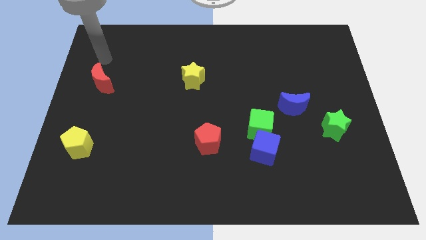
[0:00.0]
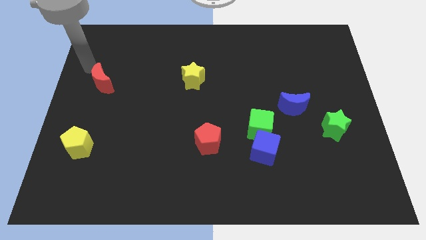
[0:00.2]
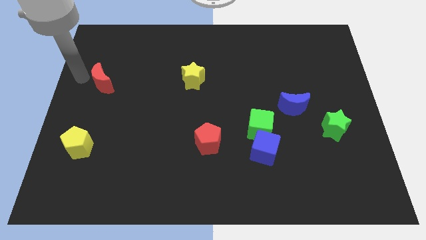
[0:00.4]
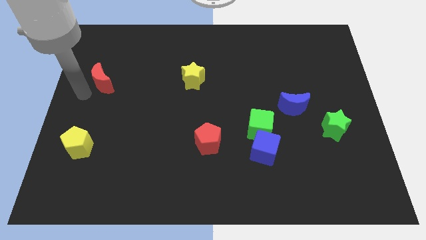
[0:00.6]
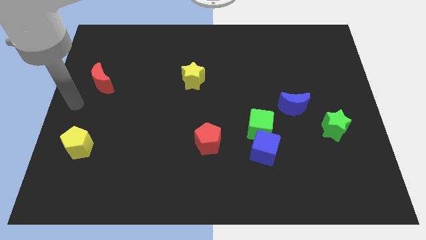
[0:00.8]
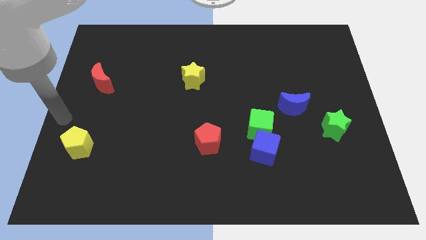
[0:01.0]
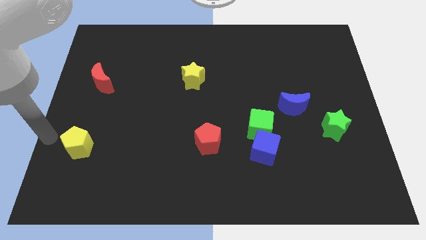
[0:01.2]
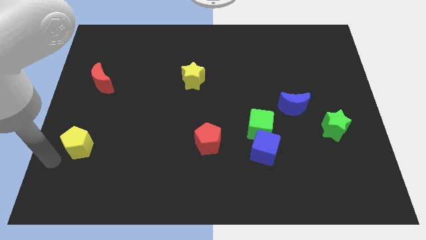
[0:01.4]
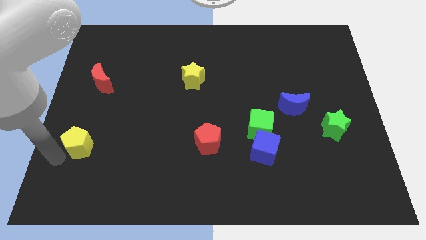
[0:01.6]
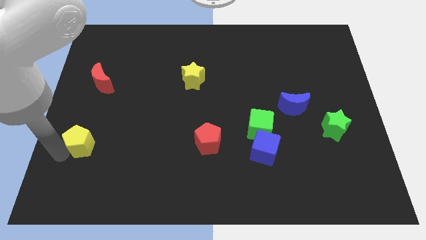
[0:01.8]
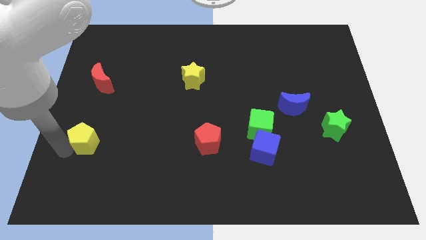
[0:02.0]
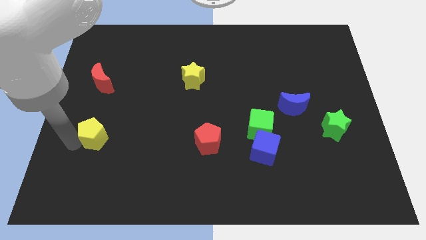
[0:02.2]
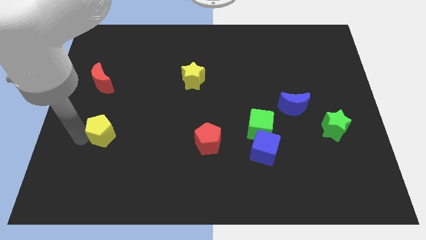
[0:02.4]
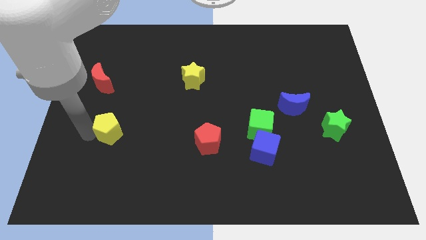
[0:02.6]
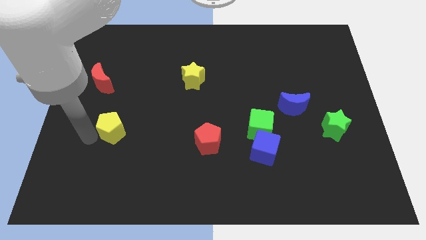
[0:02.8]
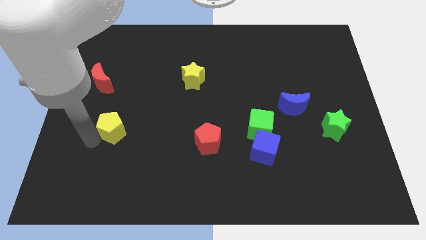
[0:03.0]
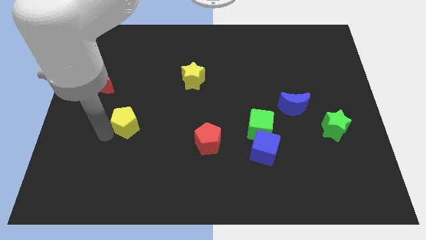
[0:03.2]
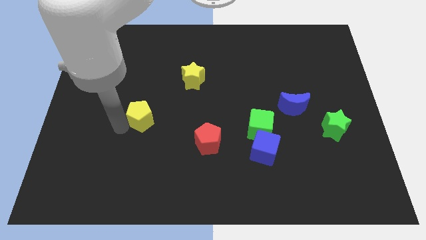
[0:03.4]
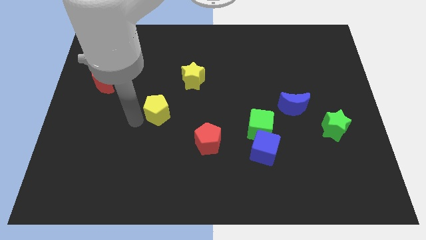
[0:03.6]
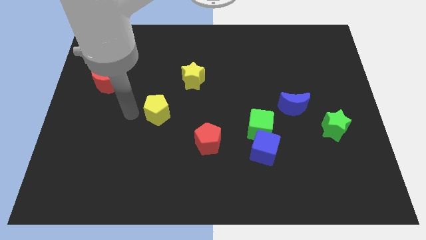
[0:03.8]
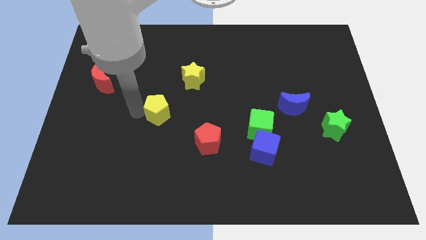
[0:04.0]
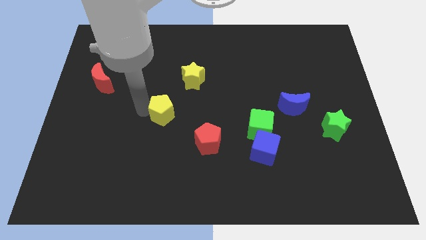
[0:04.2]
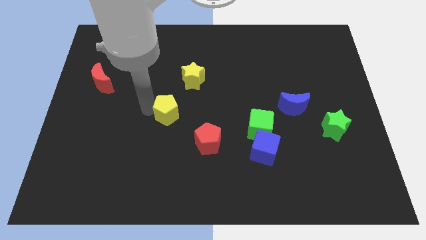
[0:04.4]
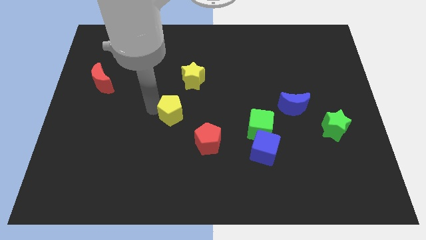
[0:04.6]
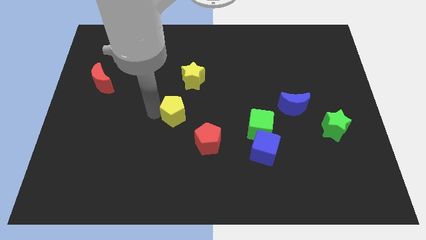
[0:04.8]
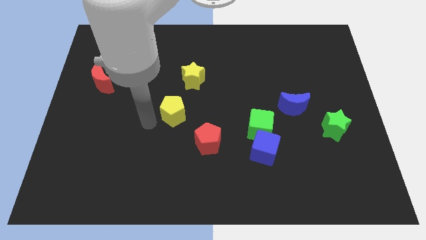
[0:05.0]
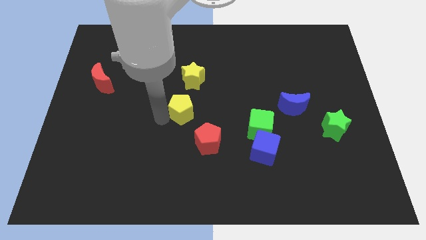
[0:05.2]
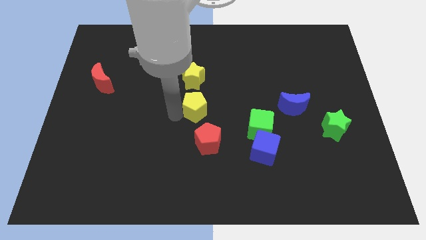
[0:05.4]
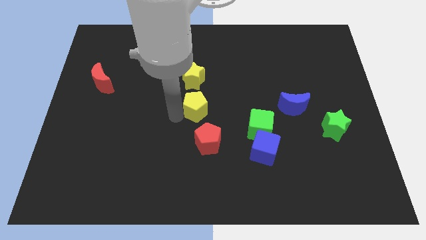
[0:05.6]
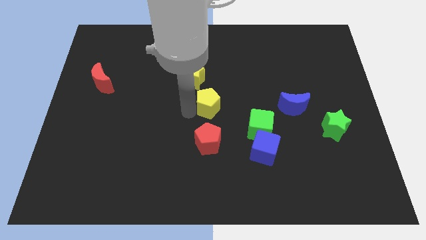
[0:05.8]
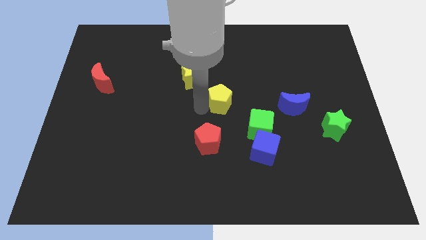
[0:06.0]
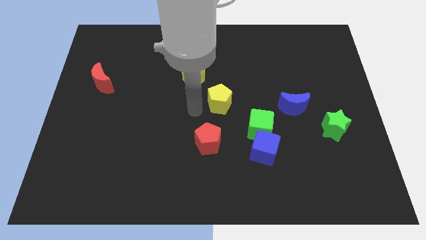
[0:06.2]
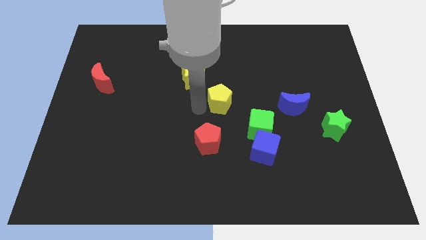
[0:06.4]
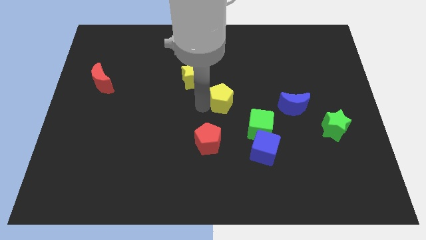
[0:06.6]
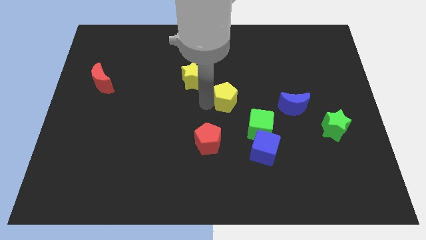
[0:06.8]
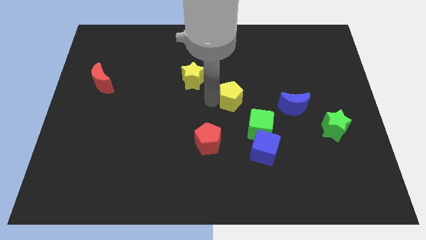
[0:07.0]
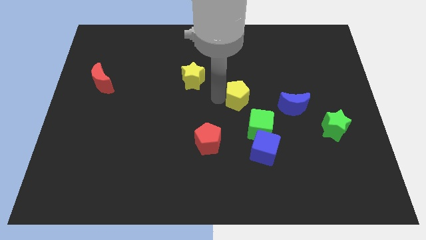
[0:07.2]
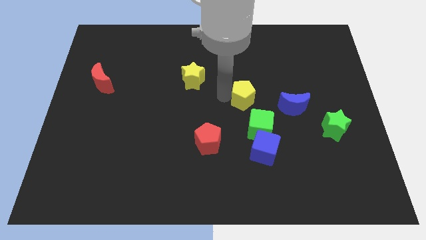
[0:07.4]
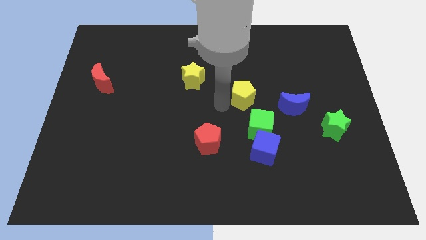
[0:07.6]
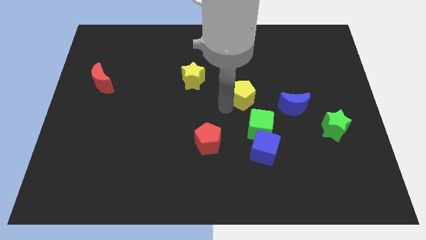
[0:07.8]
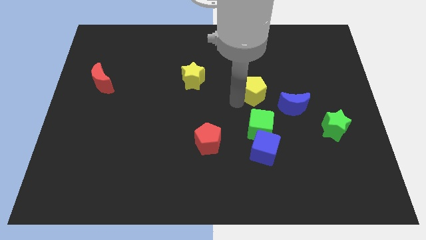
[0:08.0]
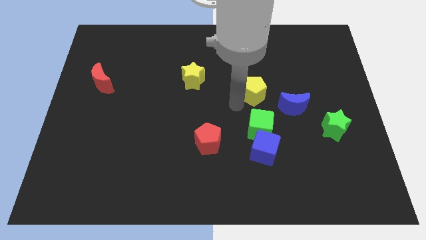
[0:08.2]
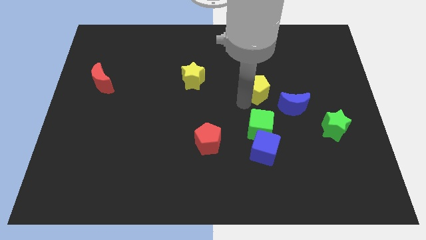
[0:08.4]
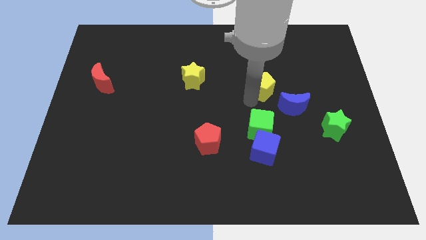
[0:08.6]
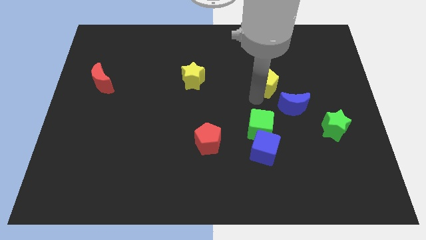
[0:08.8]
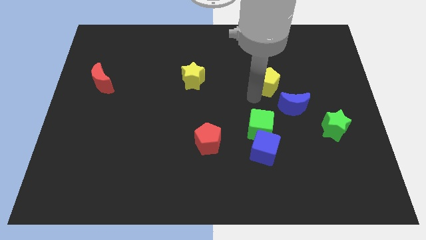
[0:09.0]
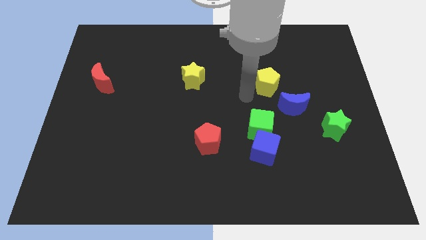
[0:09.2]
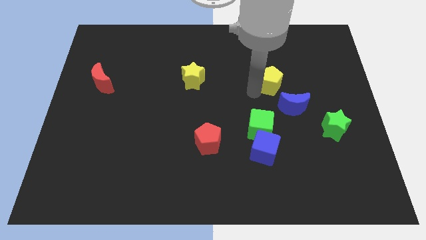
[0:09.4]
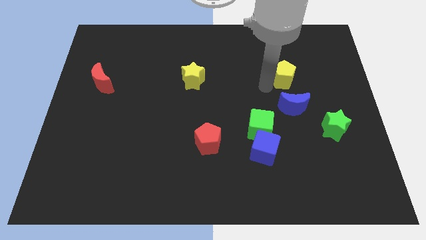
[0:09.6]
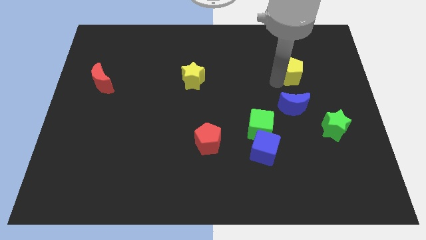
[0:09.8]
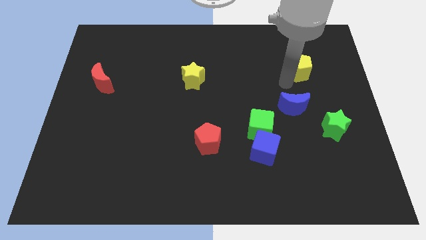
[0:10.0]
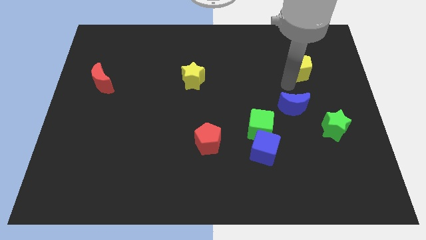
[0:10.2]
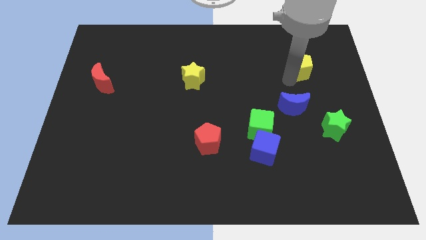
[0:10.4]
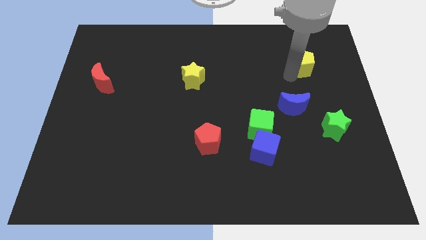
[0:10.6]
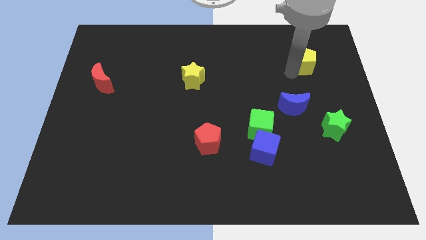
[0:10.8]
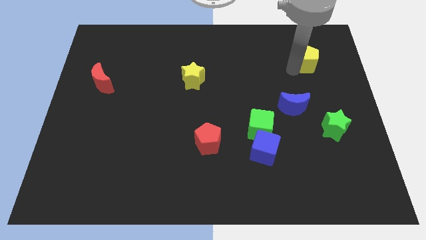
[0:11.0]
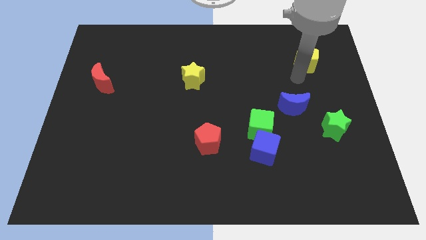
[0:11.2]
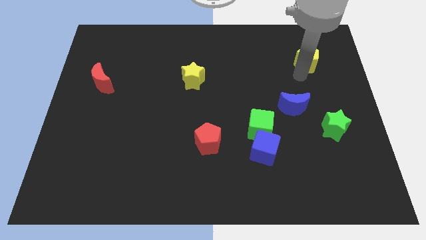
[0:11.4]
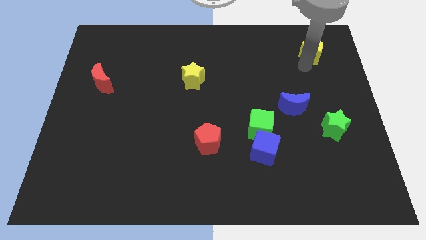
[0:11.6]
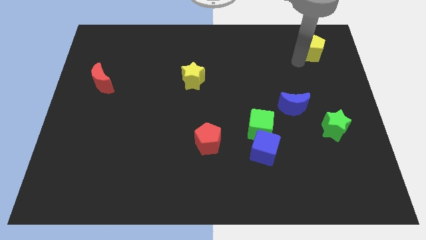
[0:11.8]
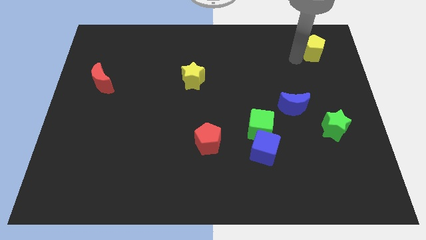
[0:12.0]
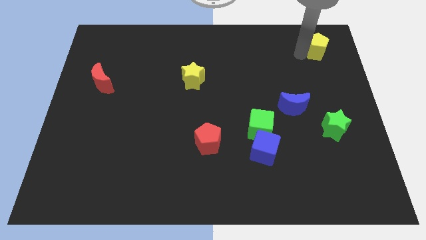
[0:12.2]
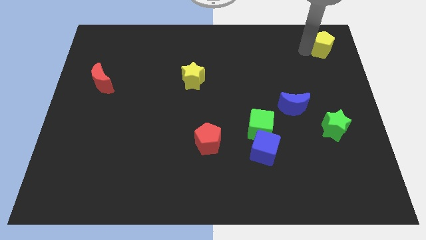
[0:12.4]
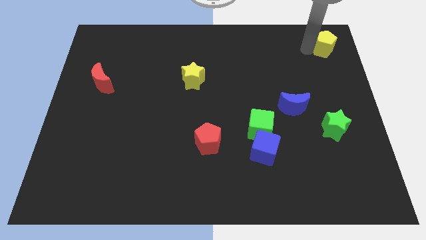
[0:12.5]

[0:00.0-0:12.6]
put the yellow pentagon to the top right corner
